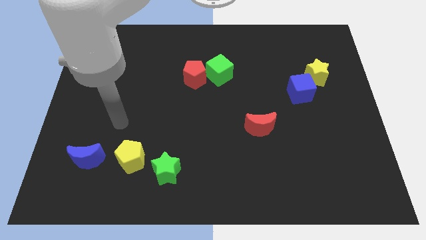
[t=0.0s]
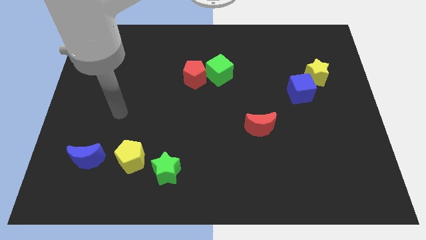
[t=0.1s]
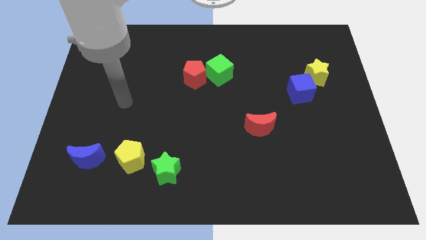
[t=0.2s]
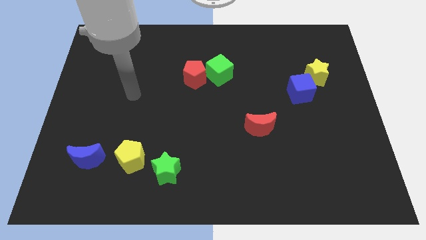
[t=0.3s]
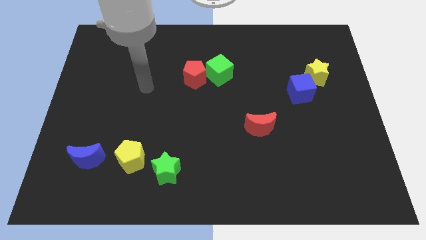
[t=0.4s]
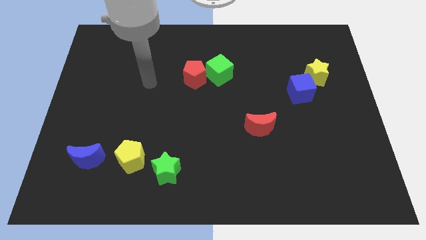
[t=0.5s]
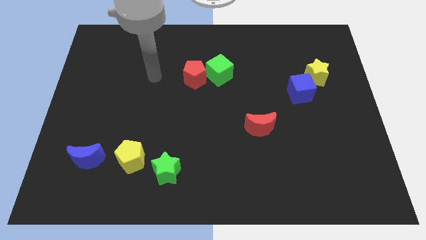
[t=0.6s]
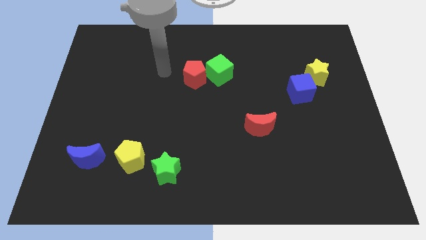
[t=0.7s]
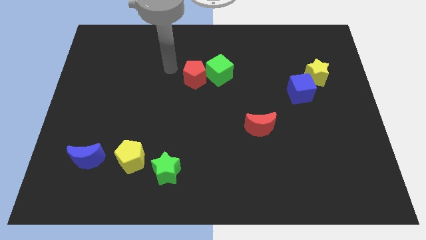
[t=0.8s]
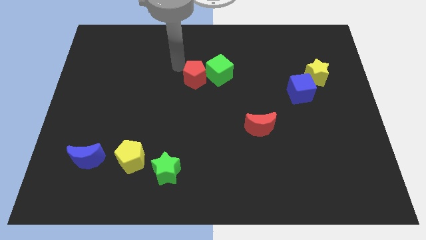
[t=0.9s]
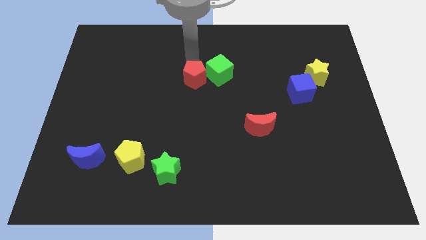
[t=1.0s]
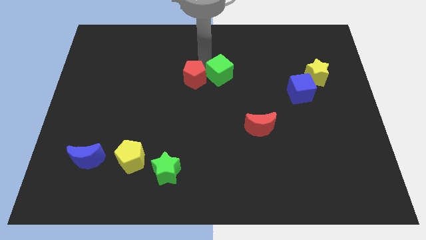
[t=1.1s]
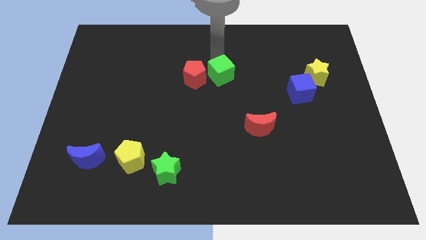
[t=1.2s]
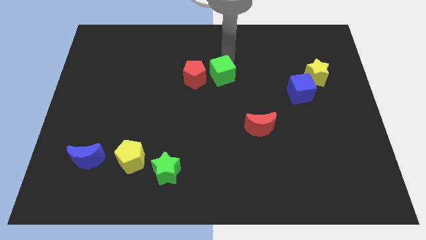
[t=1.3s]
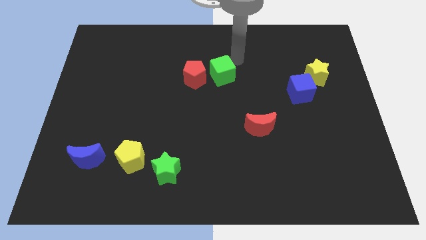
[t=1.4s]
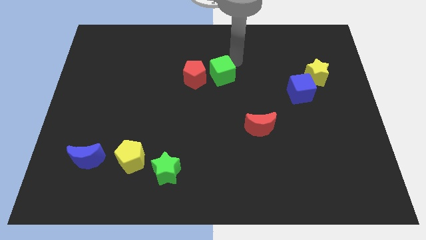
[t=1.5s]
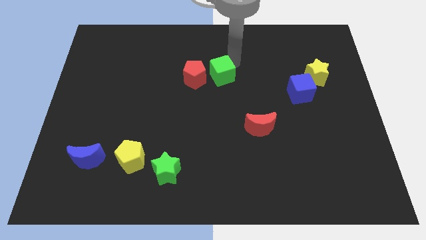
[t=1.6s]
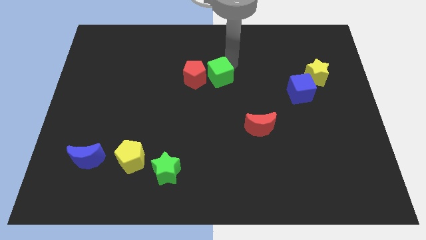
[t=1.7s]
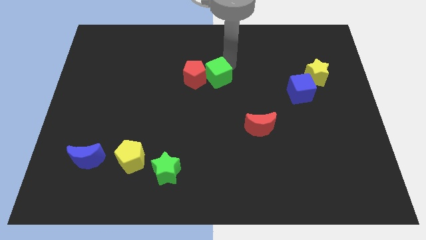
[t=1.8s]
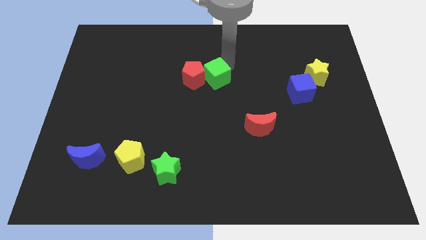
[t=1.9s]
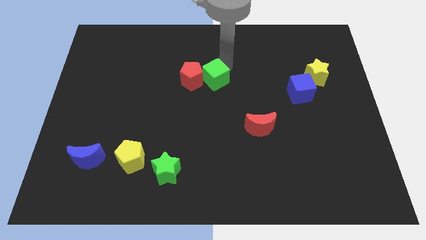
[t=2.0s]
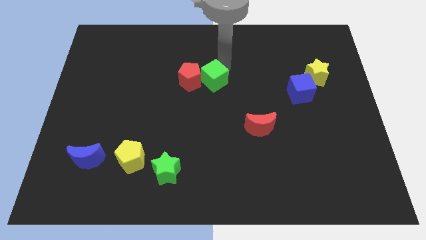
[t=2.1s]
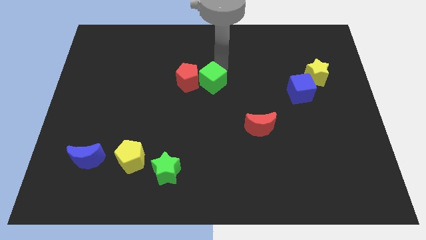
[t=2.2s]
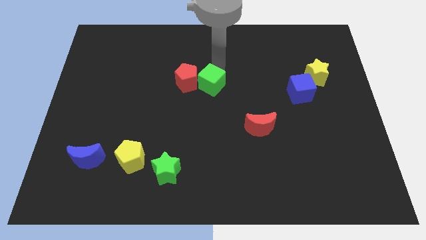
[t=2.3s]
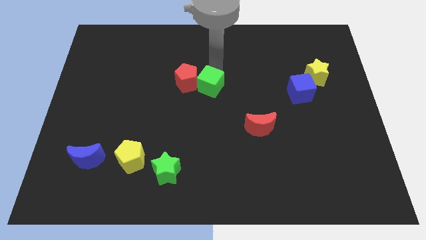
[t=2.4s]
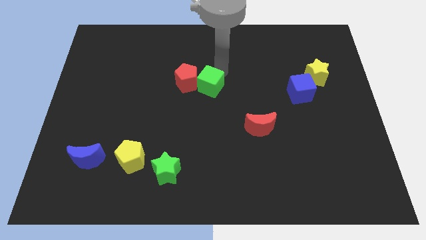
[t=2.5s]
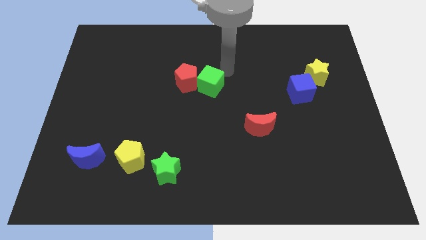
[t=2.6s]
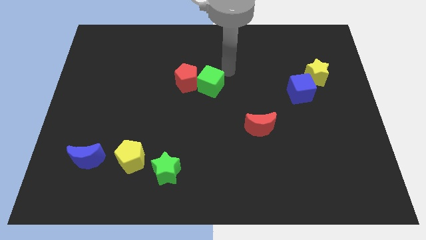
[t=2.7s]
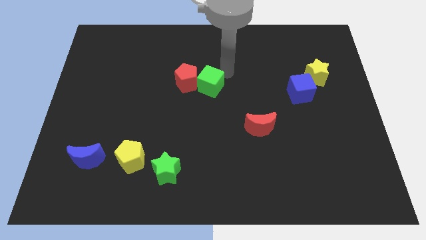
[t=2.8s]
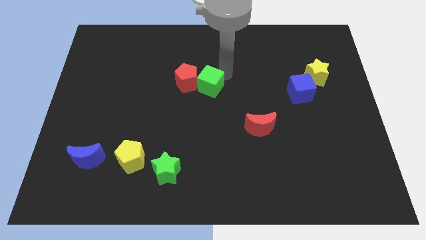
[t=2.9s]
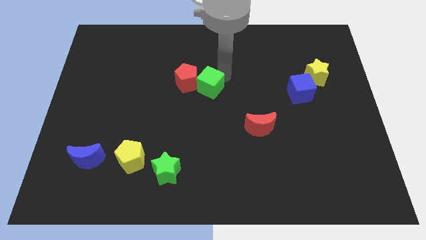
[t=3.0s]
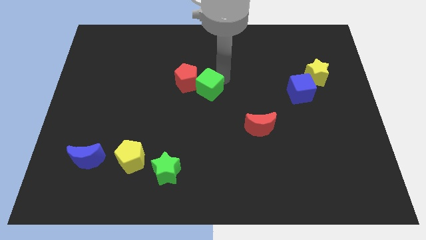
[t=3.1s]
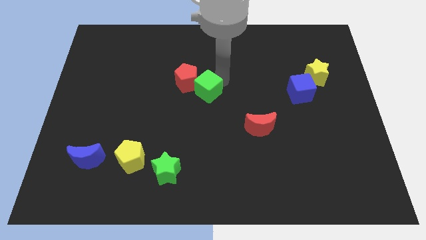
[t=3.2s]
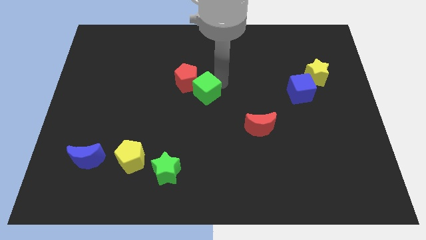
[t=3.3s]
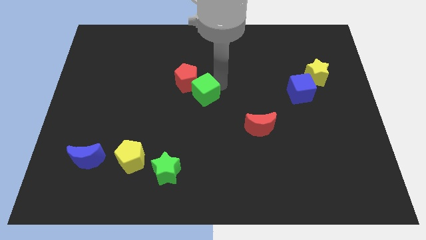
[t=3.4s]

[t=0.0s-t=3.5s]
slightly push the green cube down and left

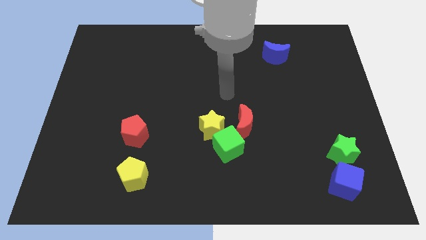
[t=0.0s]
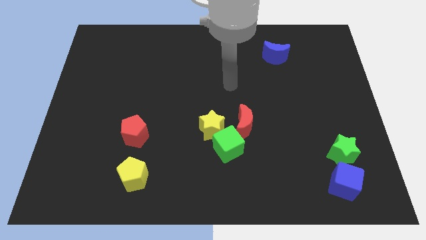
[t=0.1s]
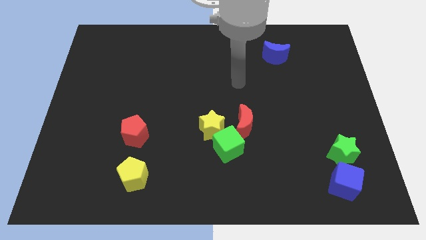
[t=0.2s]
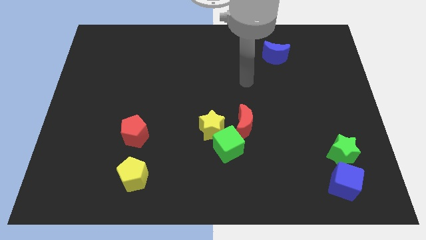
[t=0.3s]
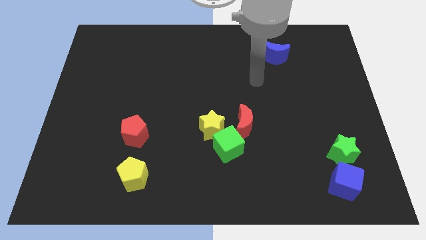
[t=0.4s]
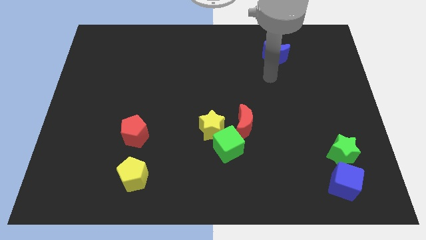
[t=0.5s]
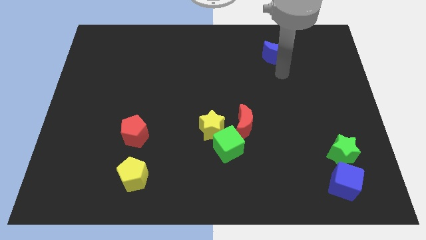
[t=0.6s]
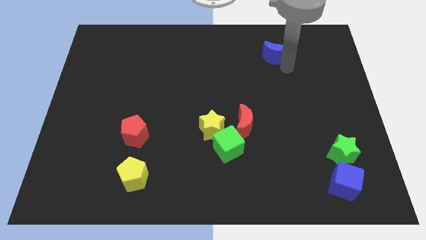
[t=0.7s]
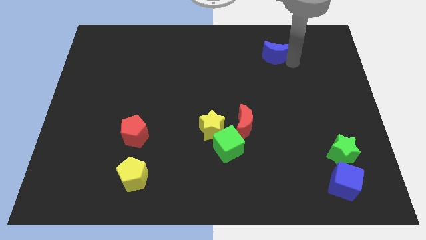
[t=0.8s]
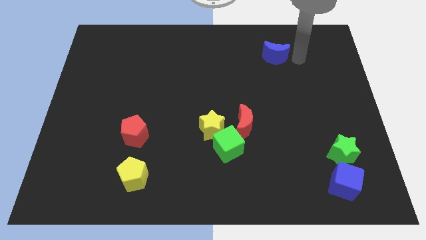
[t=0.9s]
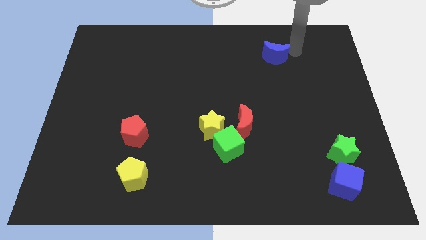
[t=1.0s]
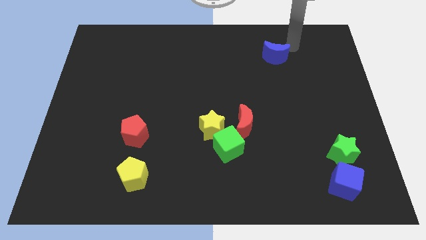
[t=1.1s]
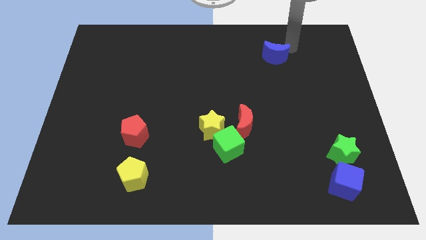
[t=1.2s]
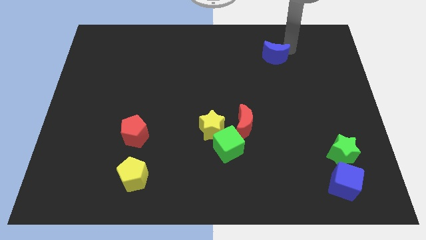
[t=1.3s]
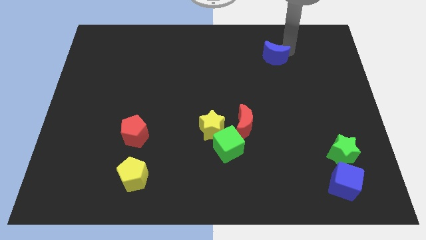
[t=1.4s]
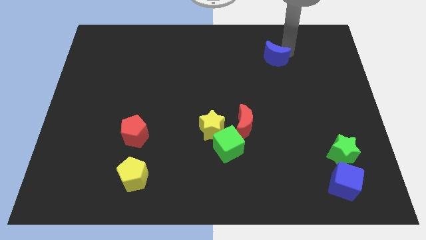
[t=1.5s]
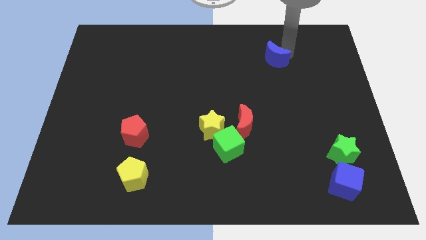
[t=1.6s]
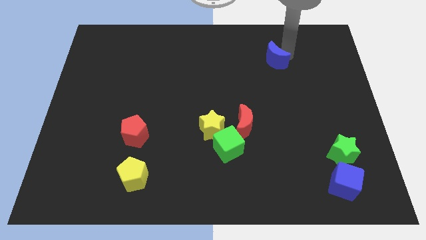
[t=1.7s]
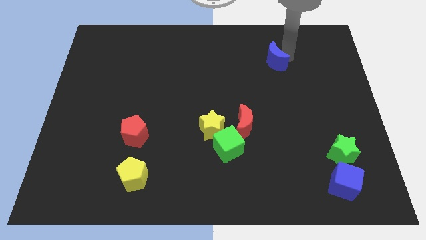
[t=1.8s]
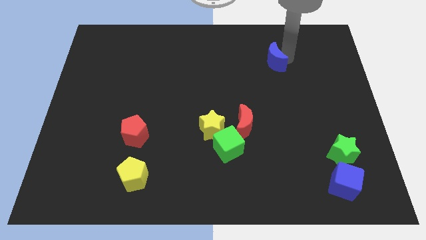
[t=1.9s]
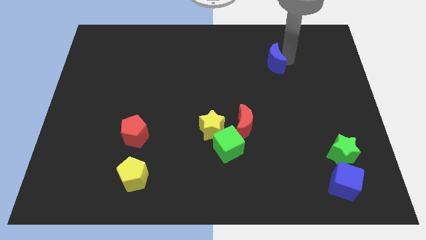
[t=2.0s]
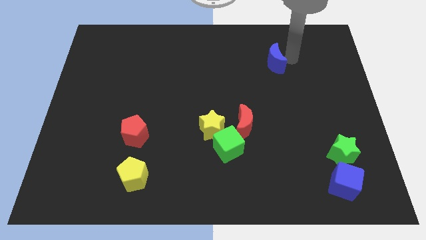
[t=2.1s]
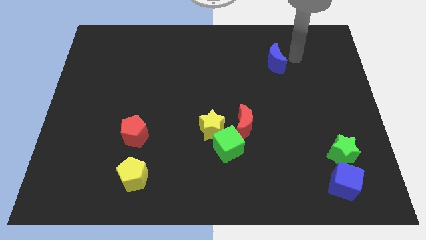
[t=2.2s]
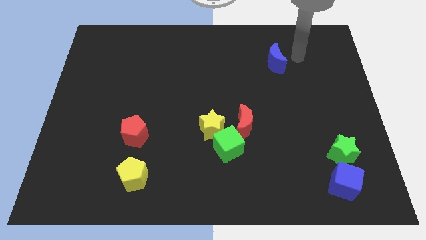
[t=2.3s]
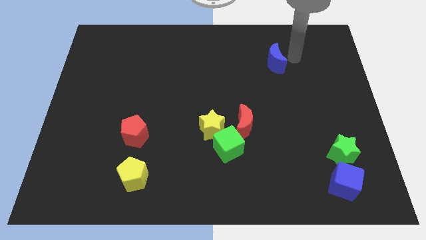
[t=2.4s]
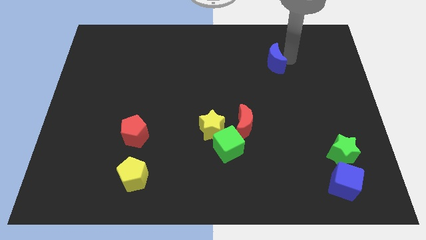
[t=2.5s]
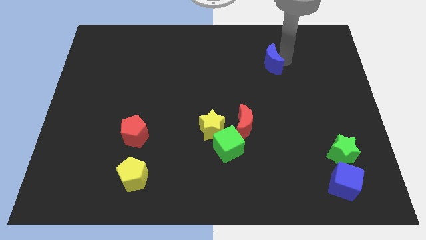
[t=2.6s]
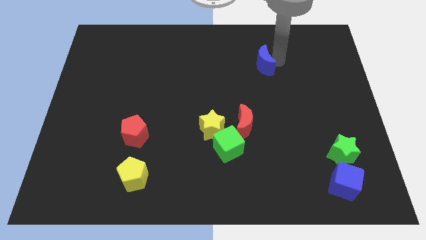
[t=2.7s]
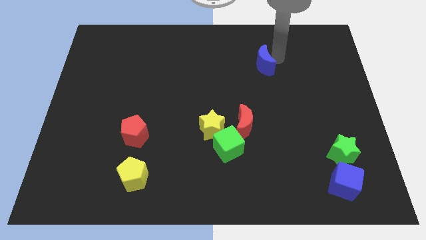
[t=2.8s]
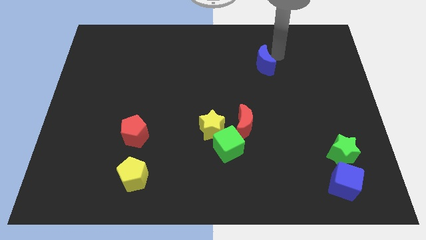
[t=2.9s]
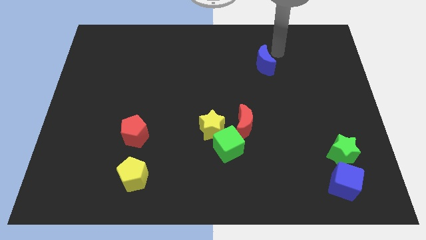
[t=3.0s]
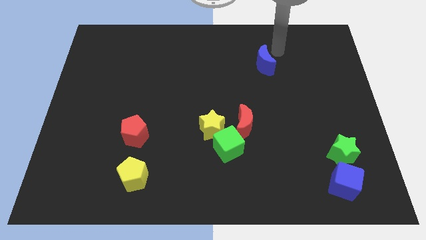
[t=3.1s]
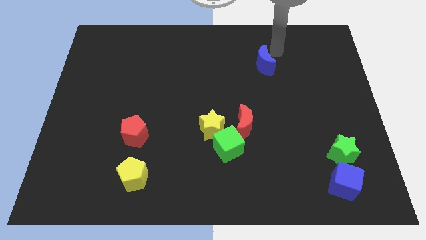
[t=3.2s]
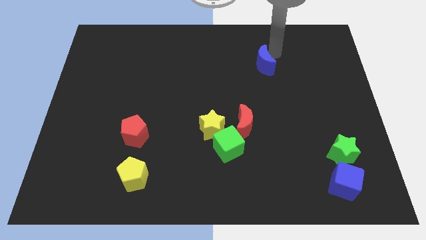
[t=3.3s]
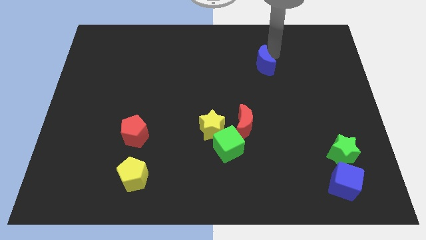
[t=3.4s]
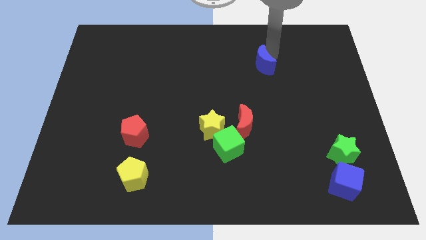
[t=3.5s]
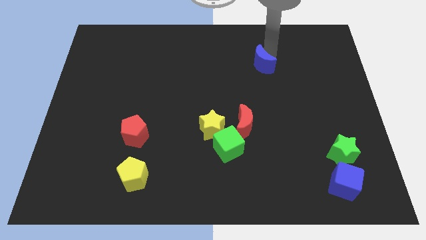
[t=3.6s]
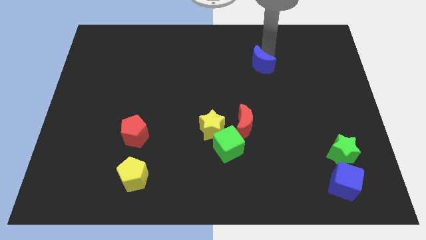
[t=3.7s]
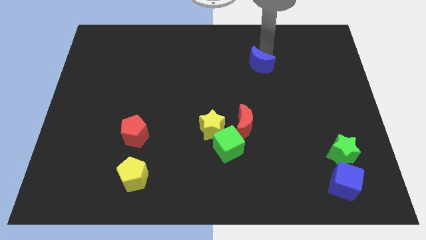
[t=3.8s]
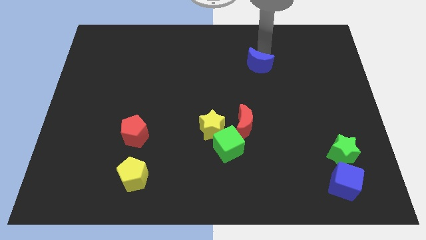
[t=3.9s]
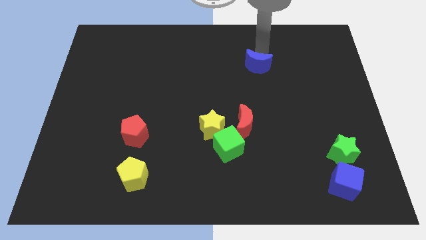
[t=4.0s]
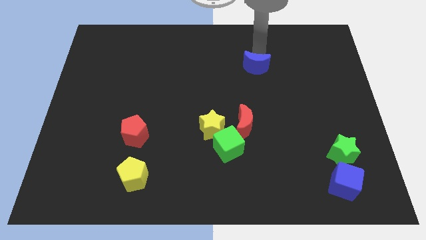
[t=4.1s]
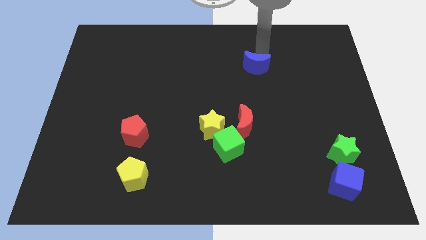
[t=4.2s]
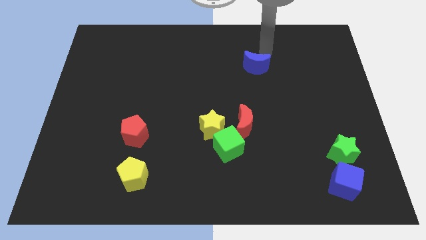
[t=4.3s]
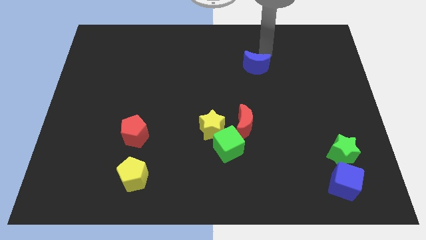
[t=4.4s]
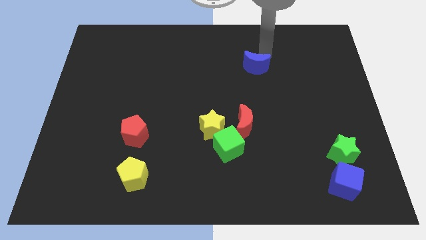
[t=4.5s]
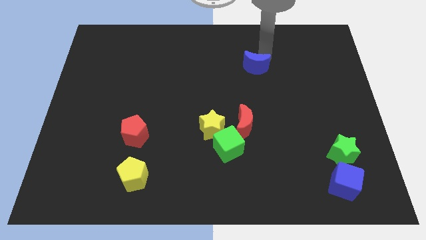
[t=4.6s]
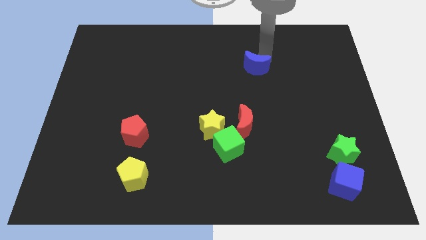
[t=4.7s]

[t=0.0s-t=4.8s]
slightly push the blue moon diagonally down and to the left
